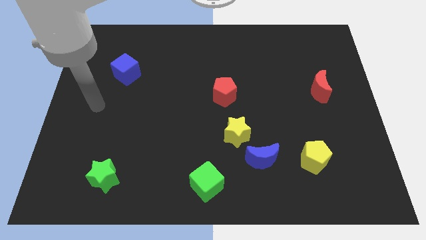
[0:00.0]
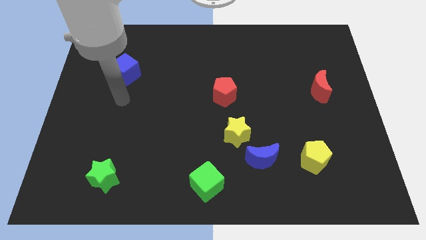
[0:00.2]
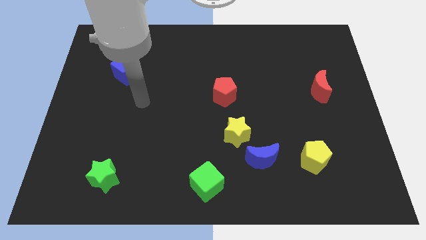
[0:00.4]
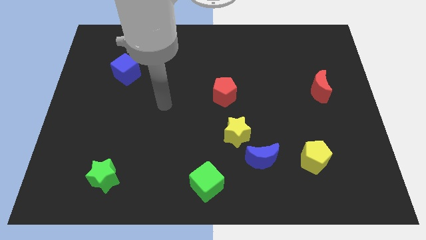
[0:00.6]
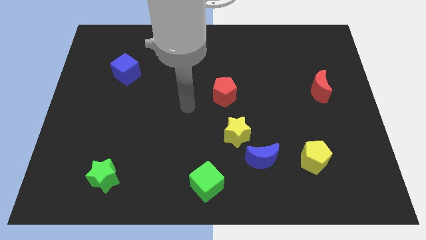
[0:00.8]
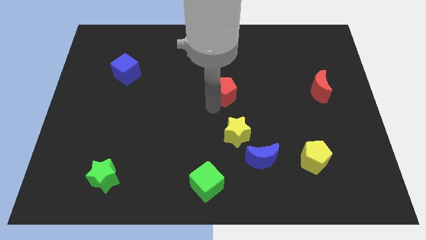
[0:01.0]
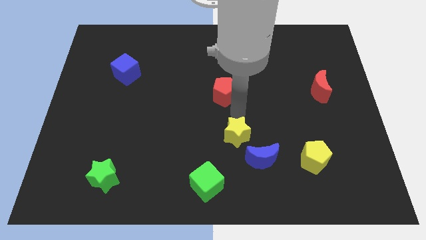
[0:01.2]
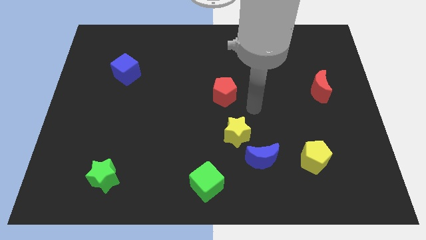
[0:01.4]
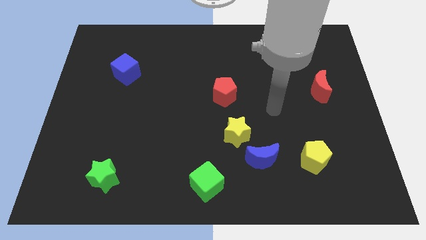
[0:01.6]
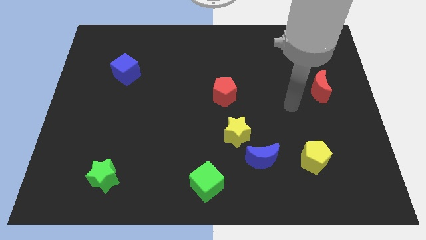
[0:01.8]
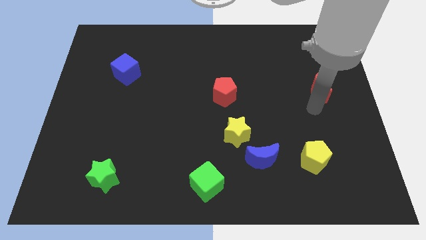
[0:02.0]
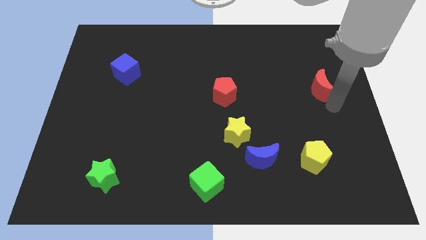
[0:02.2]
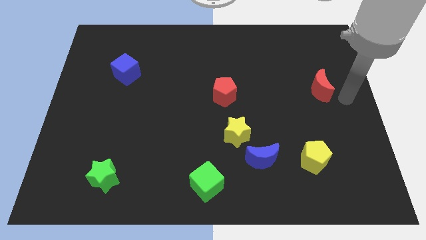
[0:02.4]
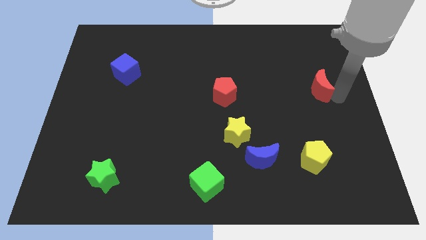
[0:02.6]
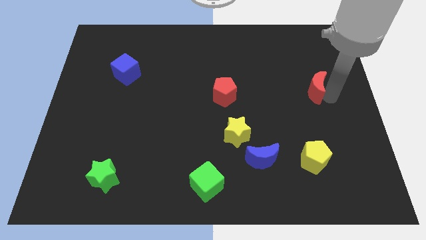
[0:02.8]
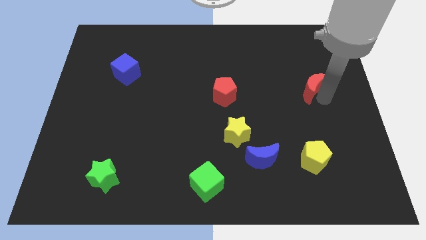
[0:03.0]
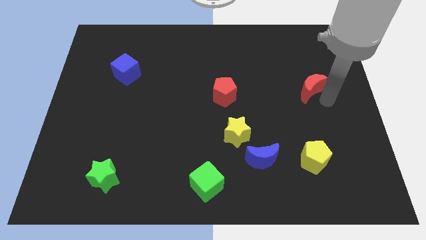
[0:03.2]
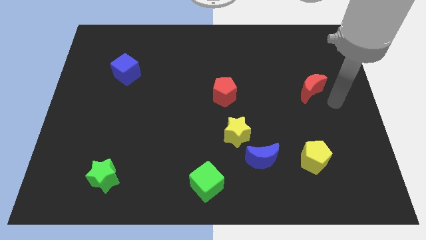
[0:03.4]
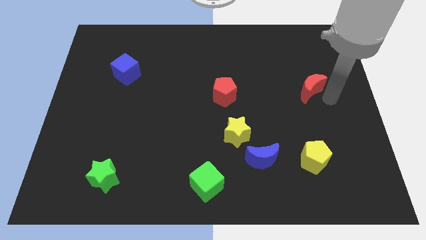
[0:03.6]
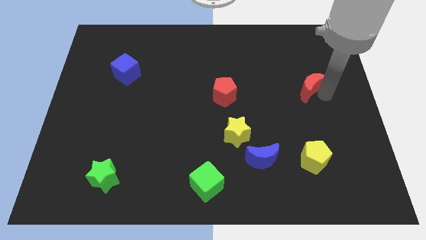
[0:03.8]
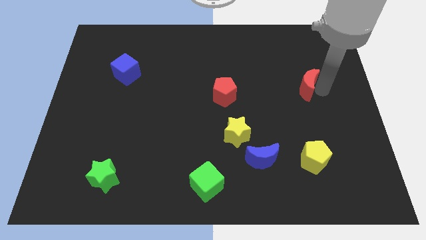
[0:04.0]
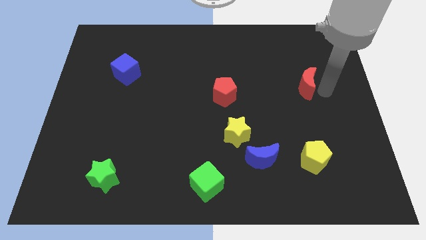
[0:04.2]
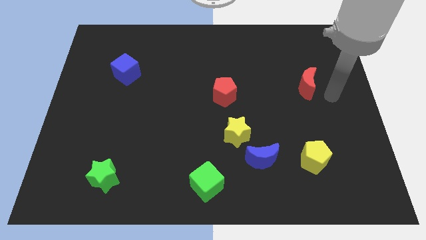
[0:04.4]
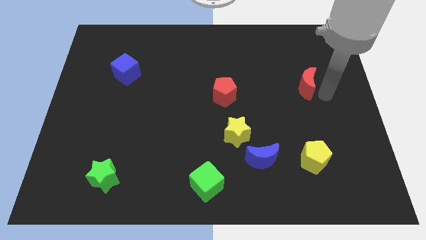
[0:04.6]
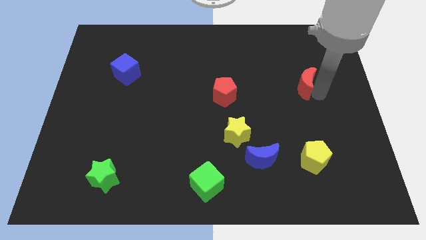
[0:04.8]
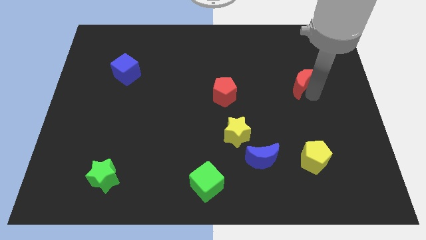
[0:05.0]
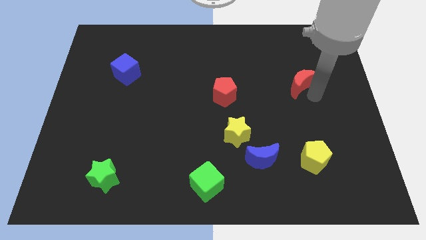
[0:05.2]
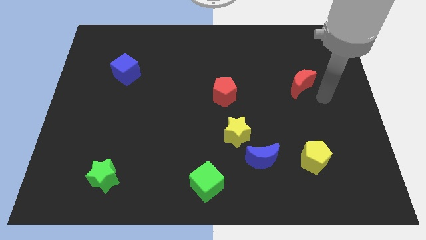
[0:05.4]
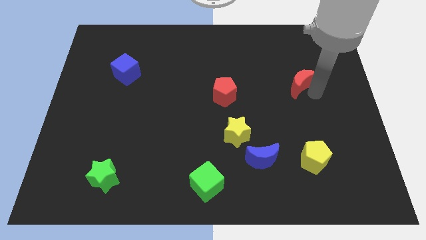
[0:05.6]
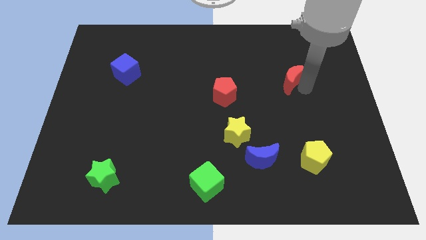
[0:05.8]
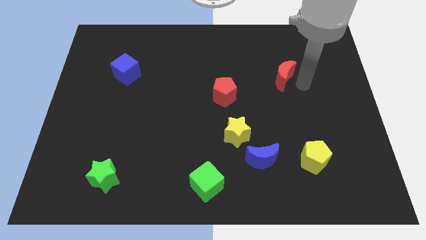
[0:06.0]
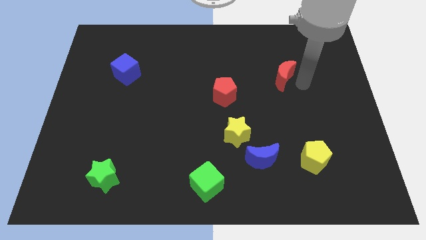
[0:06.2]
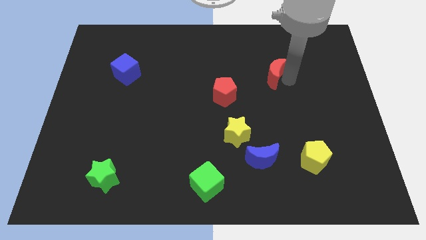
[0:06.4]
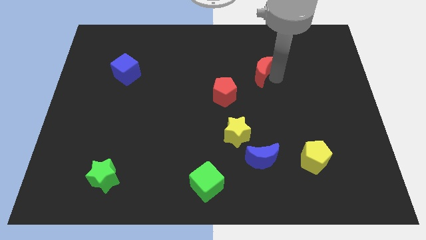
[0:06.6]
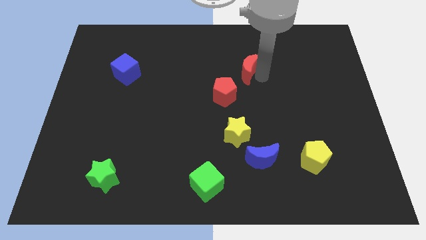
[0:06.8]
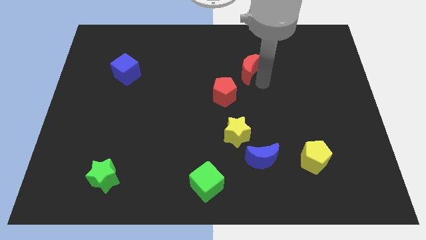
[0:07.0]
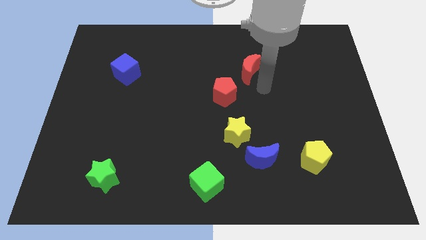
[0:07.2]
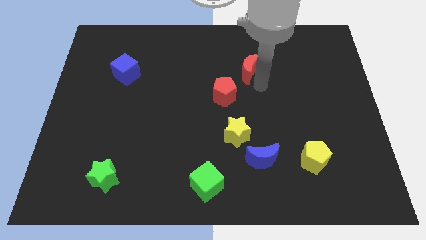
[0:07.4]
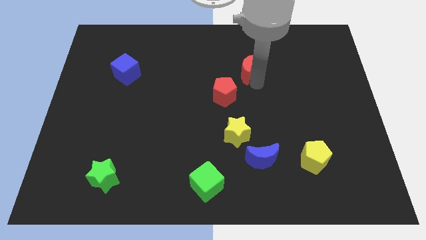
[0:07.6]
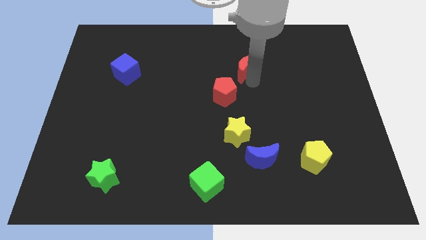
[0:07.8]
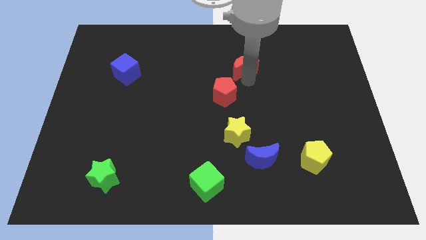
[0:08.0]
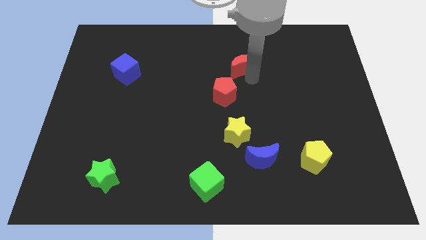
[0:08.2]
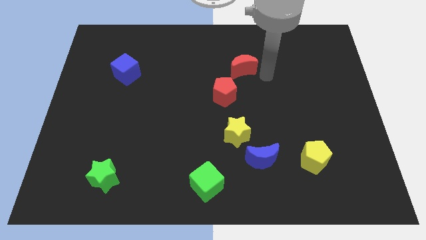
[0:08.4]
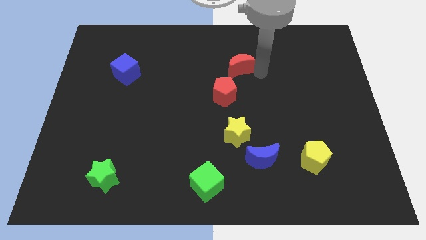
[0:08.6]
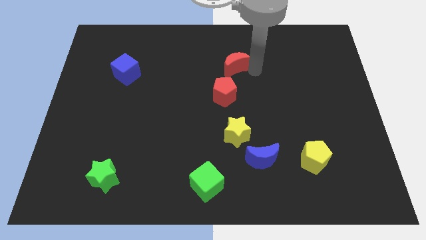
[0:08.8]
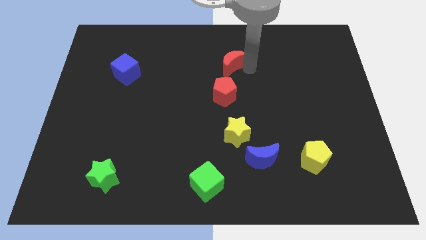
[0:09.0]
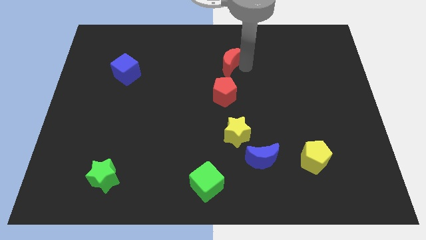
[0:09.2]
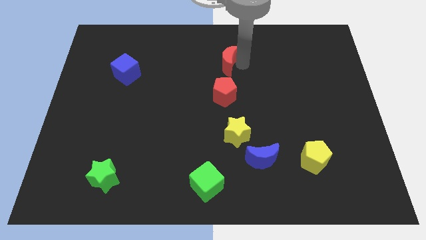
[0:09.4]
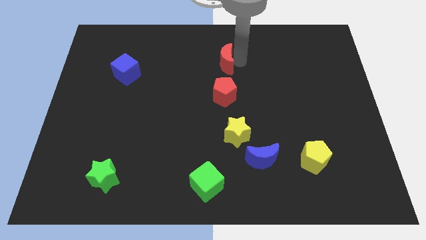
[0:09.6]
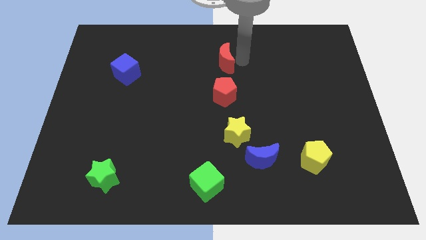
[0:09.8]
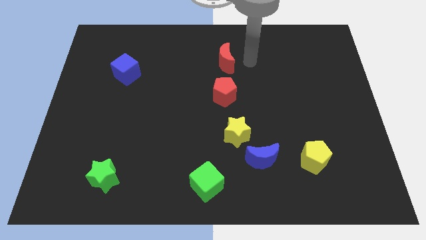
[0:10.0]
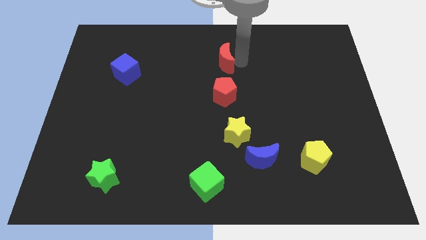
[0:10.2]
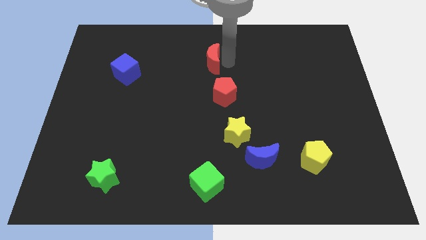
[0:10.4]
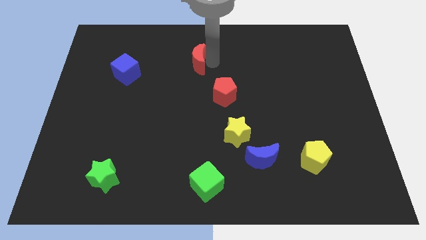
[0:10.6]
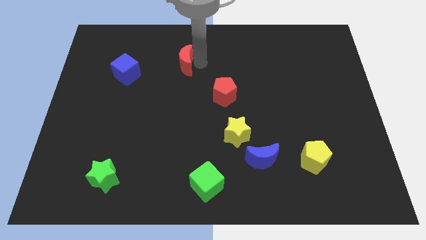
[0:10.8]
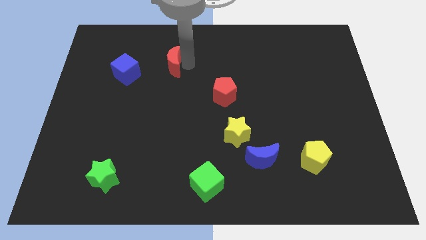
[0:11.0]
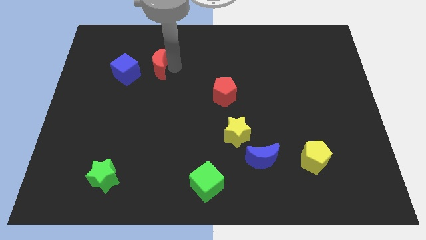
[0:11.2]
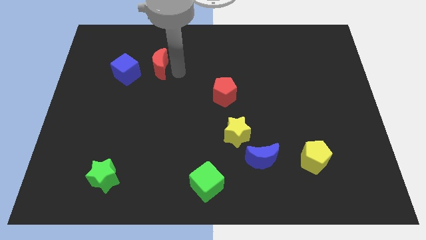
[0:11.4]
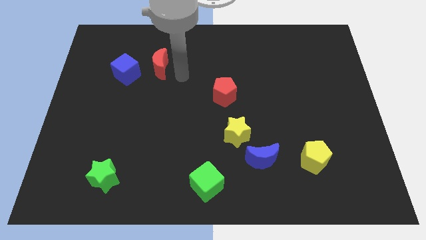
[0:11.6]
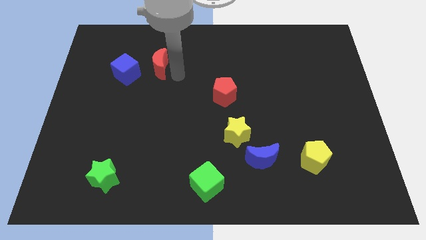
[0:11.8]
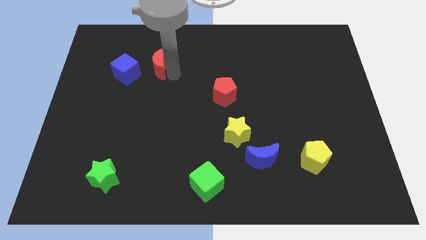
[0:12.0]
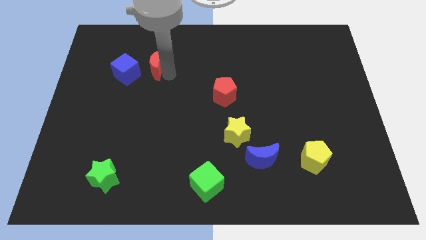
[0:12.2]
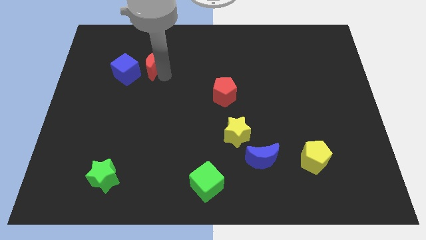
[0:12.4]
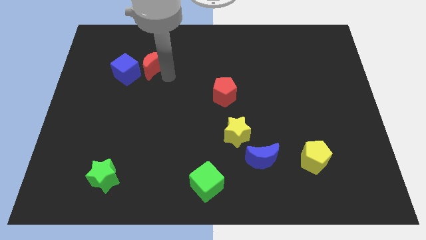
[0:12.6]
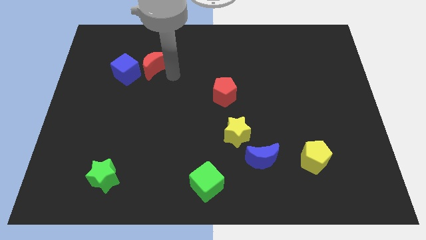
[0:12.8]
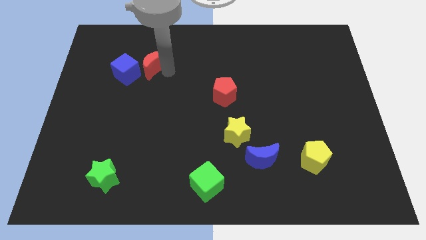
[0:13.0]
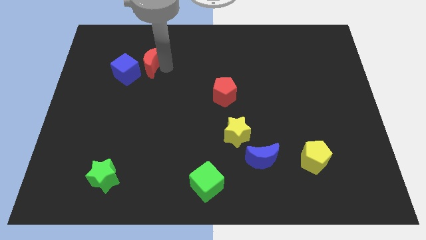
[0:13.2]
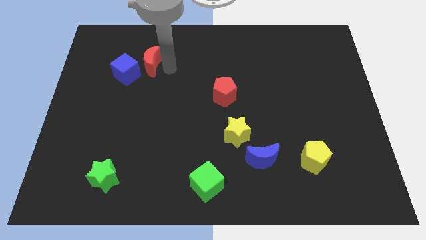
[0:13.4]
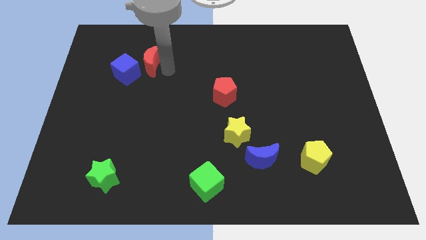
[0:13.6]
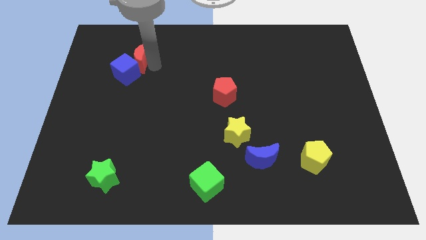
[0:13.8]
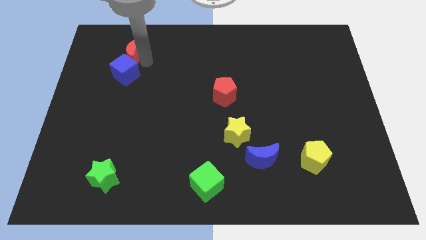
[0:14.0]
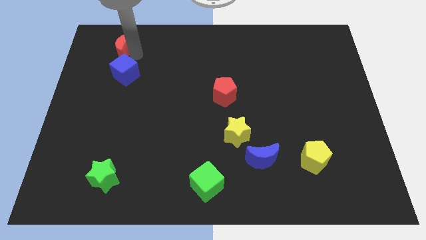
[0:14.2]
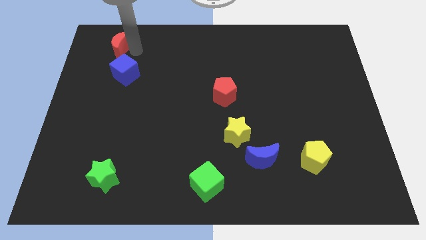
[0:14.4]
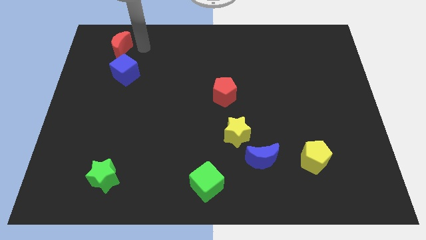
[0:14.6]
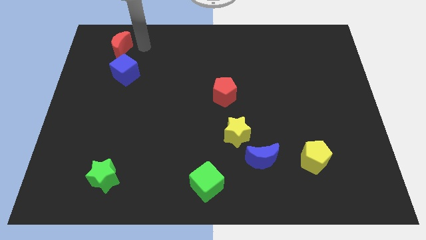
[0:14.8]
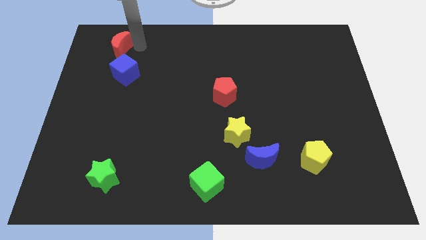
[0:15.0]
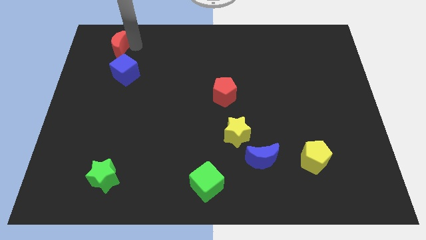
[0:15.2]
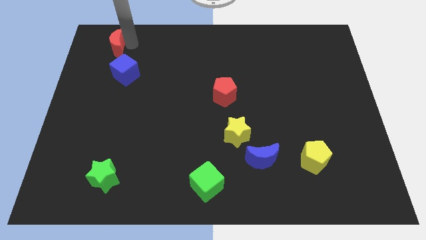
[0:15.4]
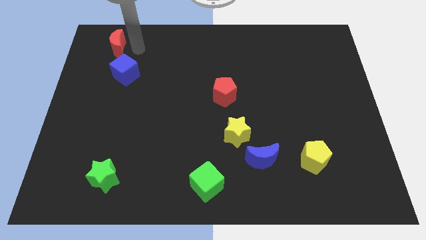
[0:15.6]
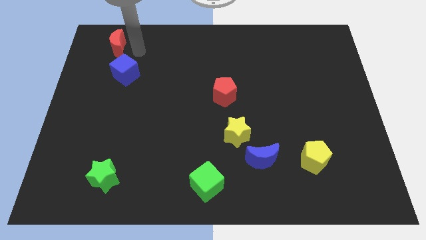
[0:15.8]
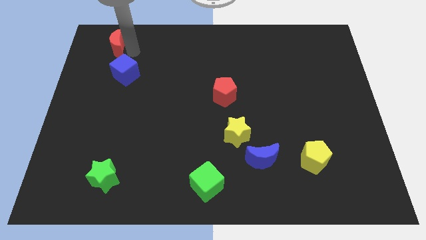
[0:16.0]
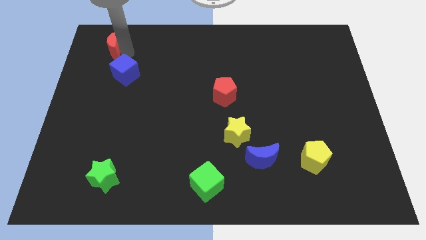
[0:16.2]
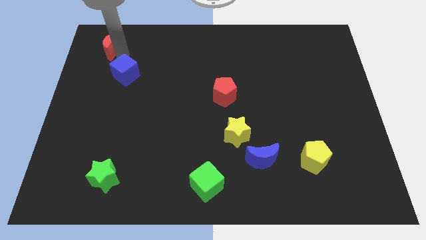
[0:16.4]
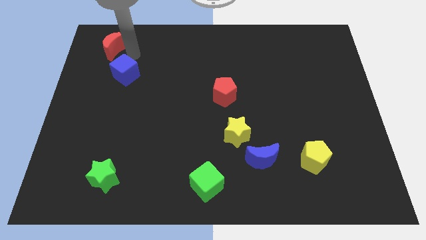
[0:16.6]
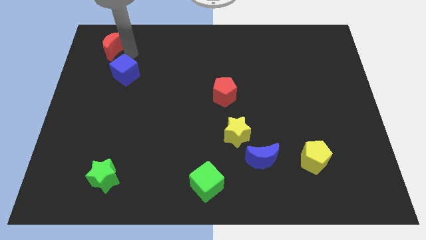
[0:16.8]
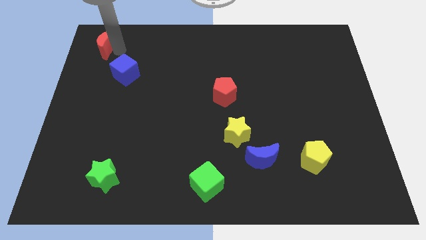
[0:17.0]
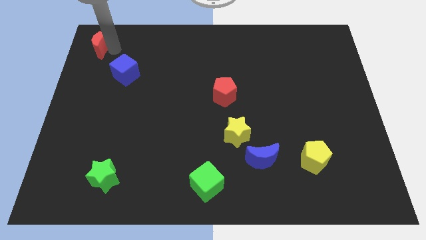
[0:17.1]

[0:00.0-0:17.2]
move the red moon to the top left
